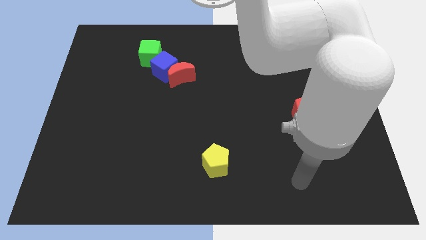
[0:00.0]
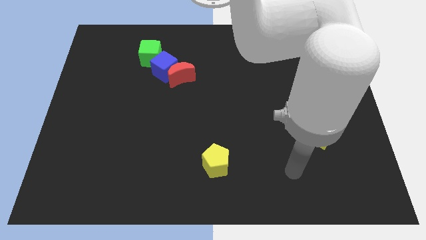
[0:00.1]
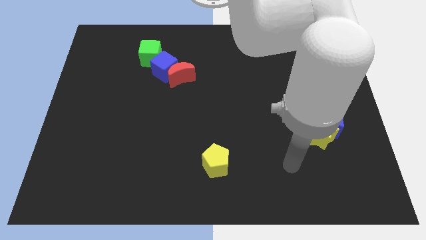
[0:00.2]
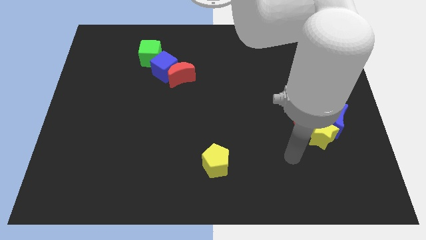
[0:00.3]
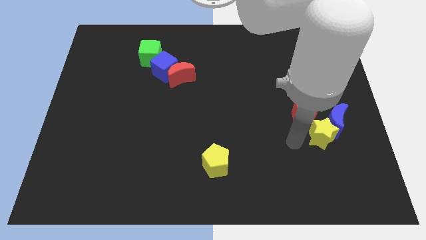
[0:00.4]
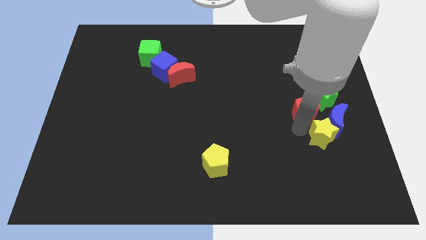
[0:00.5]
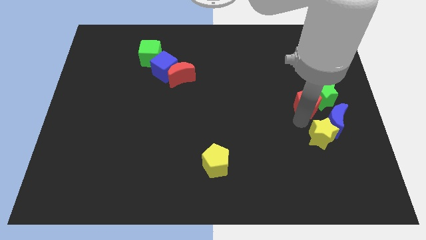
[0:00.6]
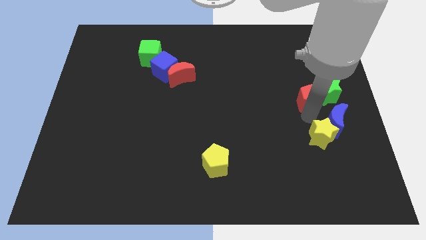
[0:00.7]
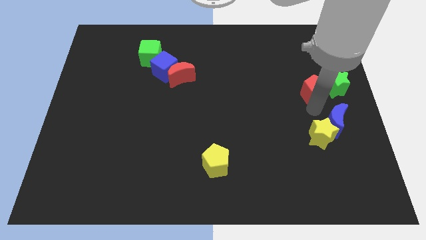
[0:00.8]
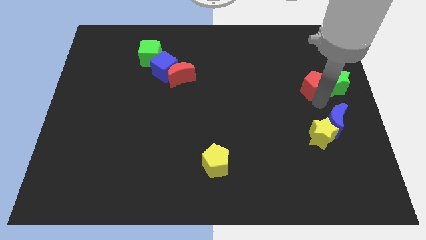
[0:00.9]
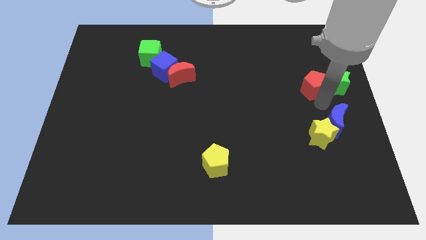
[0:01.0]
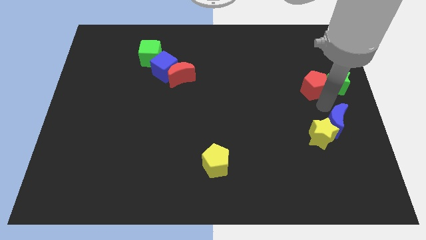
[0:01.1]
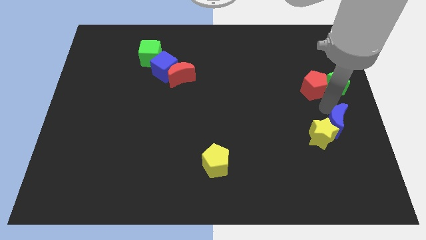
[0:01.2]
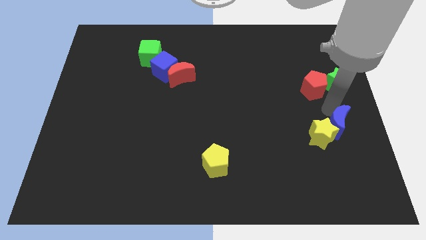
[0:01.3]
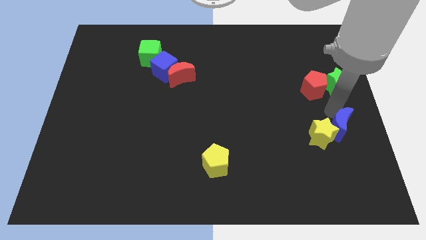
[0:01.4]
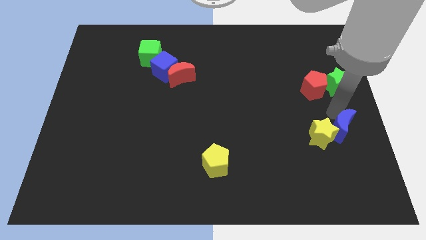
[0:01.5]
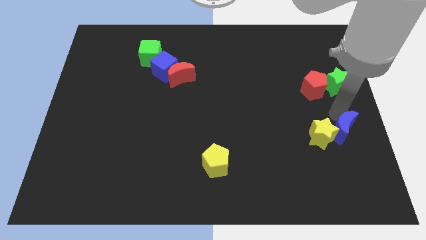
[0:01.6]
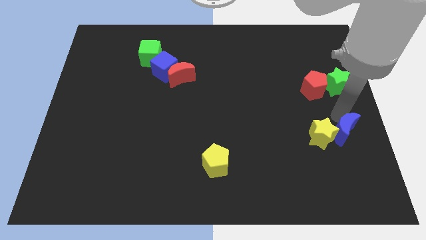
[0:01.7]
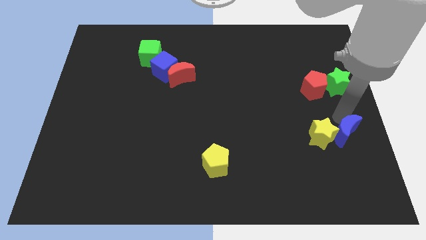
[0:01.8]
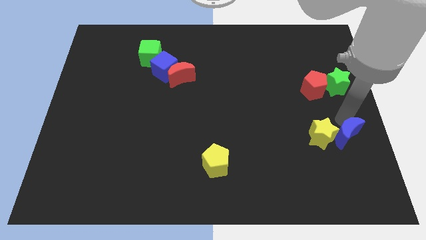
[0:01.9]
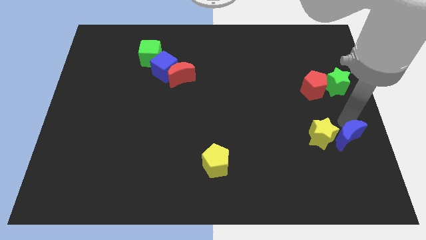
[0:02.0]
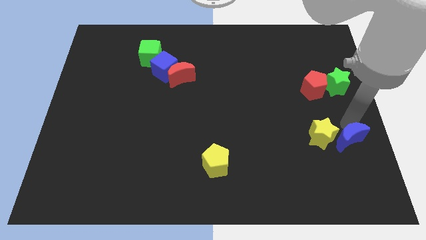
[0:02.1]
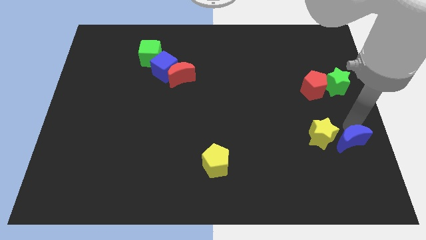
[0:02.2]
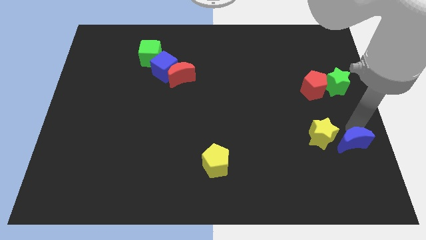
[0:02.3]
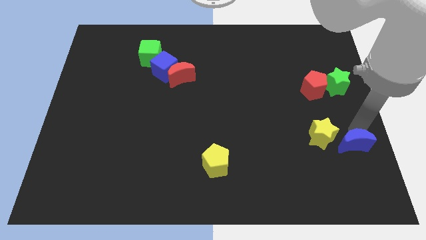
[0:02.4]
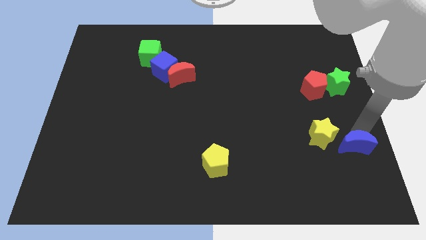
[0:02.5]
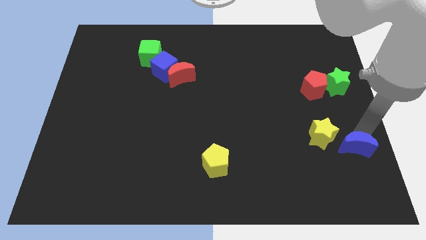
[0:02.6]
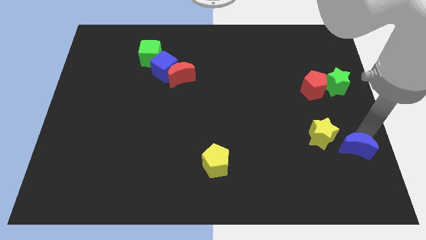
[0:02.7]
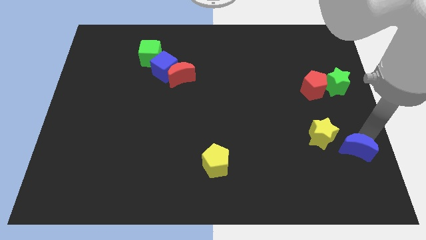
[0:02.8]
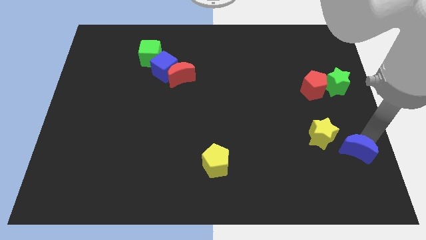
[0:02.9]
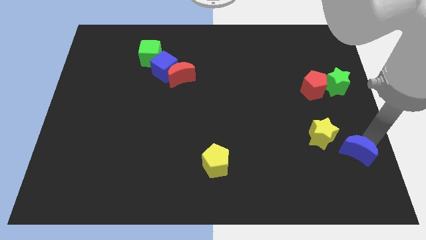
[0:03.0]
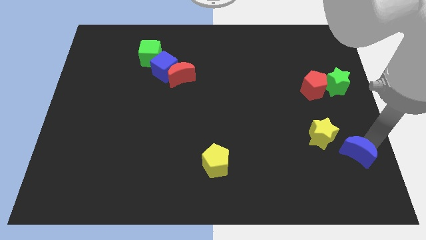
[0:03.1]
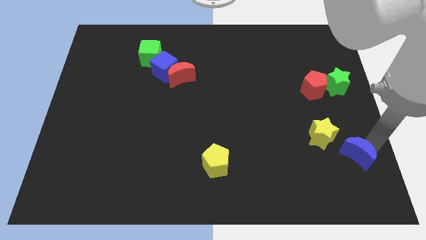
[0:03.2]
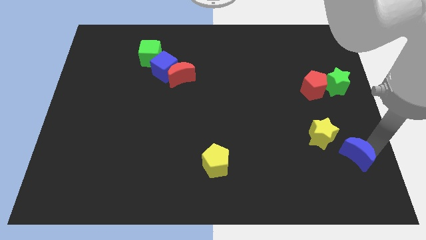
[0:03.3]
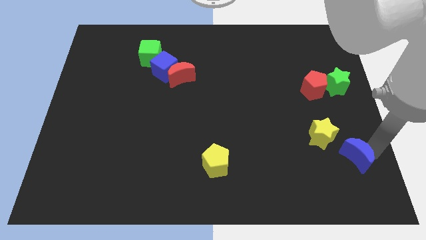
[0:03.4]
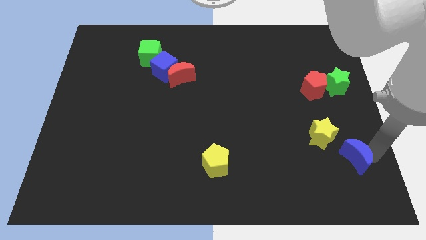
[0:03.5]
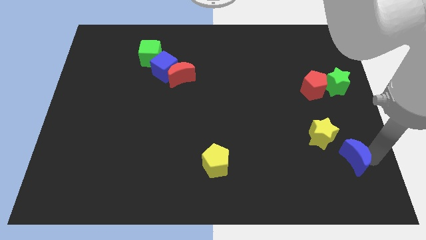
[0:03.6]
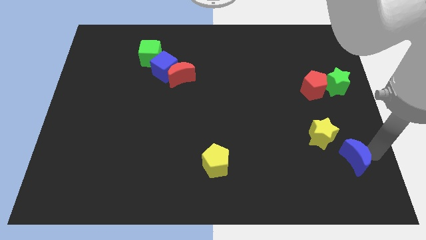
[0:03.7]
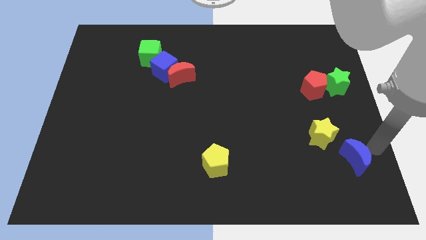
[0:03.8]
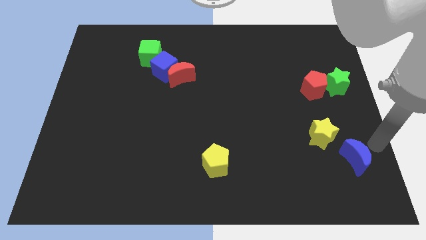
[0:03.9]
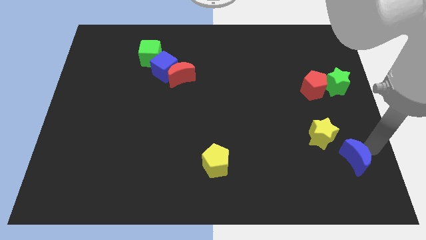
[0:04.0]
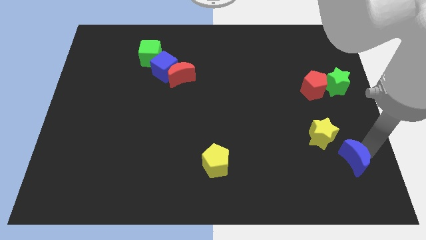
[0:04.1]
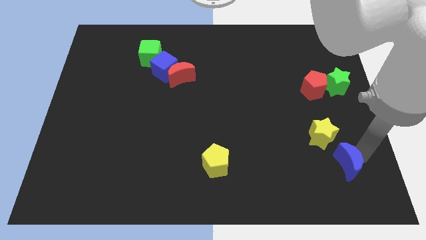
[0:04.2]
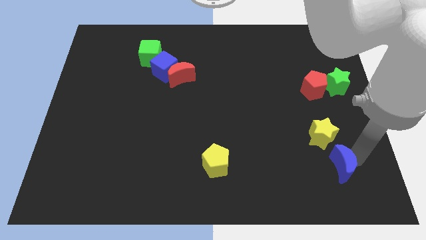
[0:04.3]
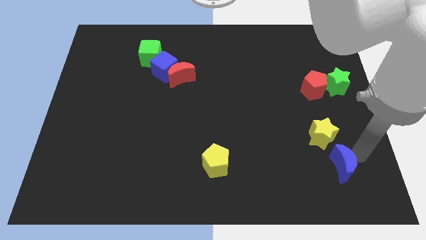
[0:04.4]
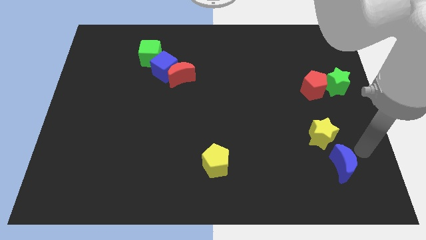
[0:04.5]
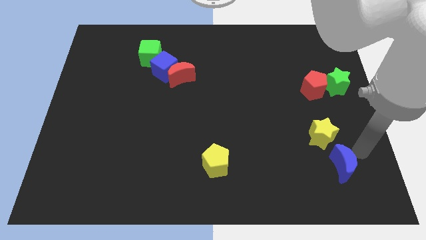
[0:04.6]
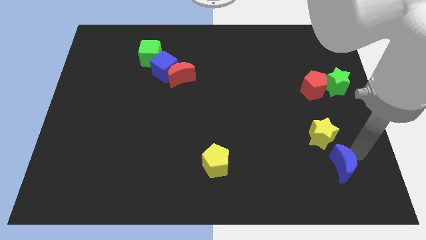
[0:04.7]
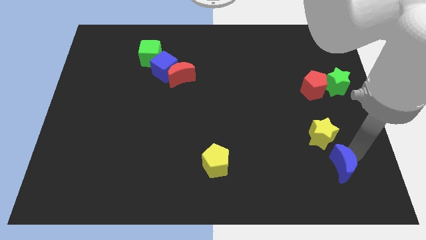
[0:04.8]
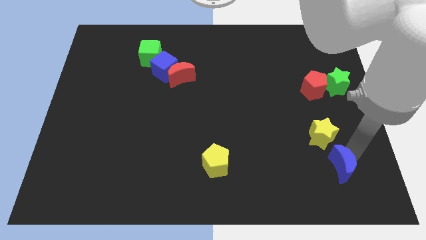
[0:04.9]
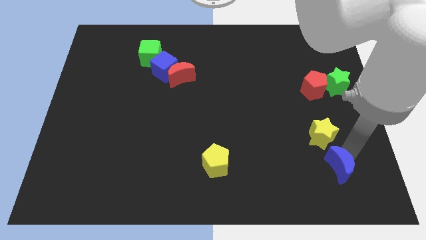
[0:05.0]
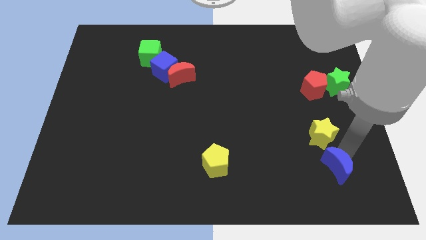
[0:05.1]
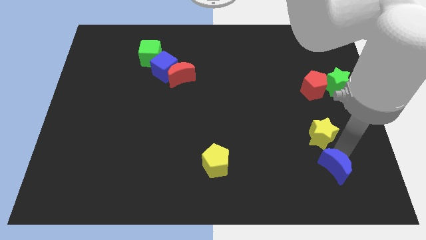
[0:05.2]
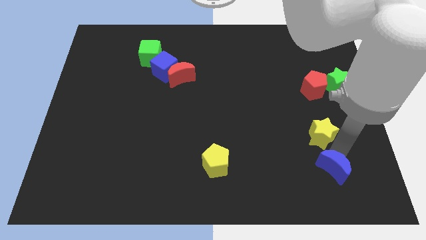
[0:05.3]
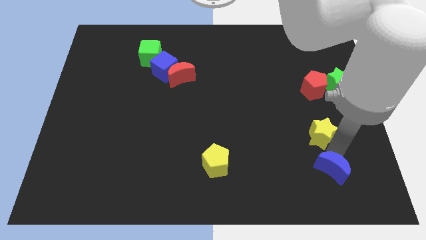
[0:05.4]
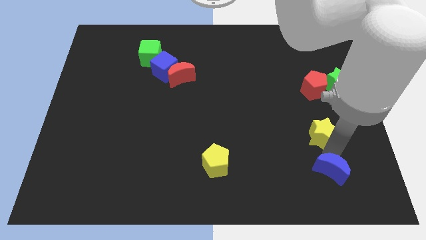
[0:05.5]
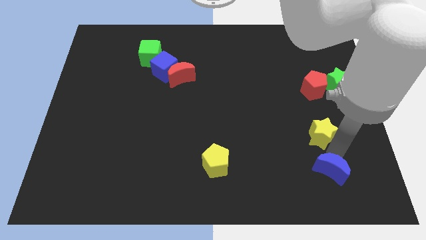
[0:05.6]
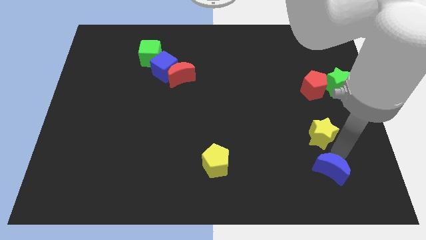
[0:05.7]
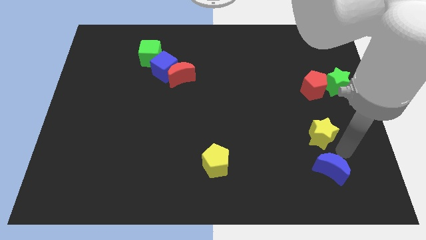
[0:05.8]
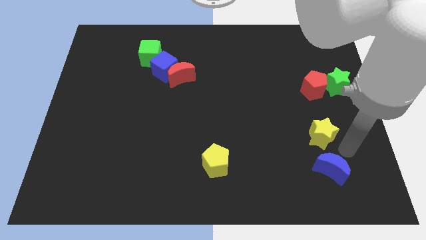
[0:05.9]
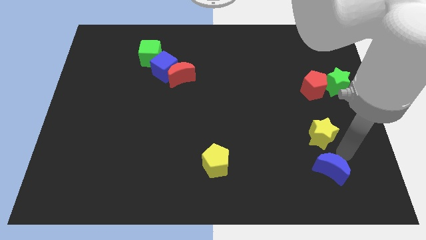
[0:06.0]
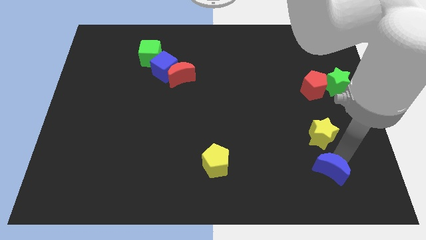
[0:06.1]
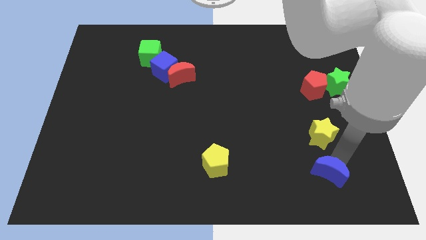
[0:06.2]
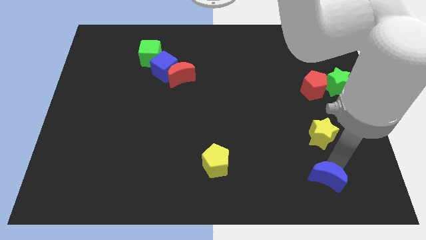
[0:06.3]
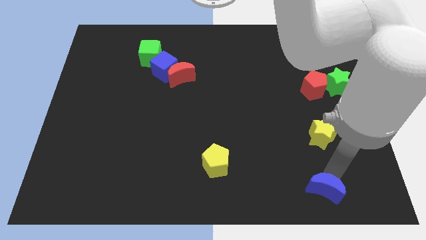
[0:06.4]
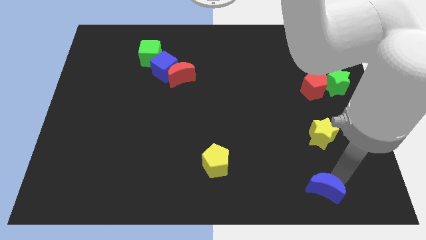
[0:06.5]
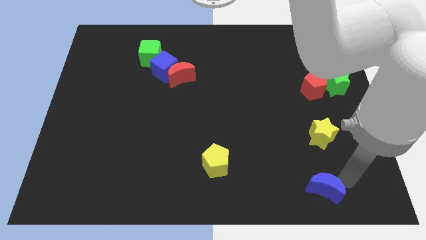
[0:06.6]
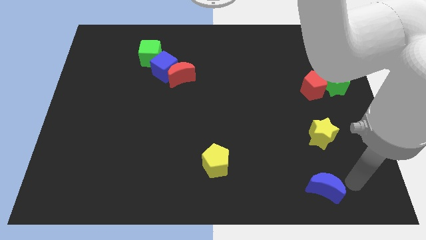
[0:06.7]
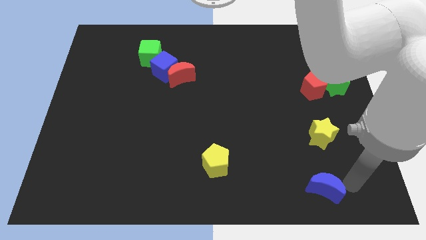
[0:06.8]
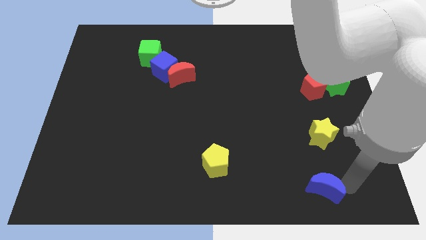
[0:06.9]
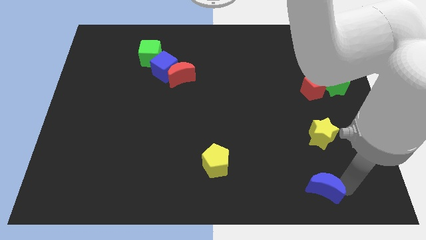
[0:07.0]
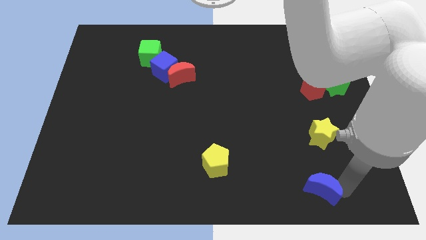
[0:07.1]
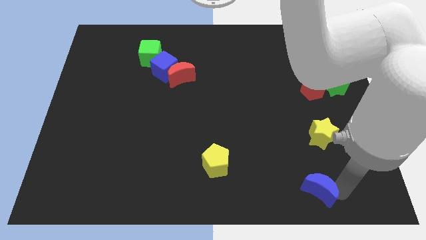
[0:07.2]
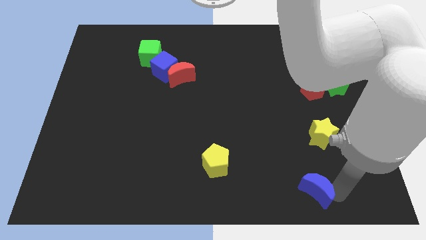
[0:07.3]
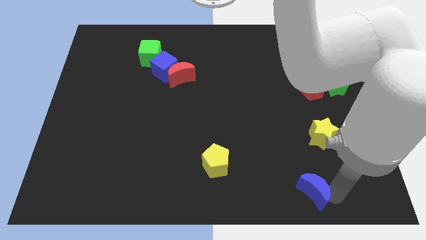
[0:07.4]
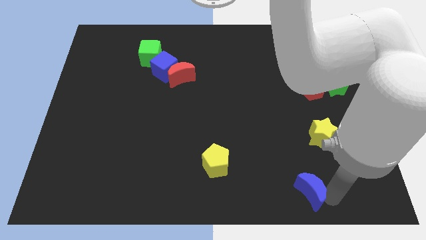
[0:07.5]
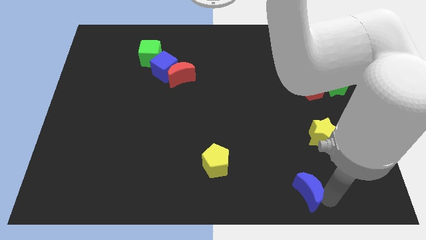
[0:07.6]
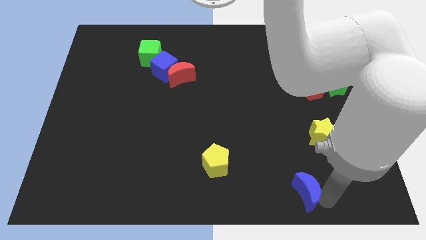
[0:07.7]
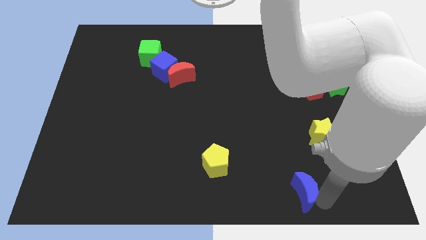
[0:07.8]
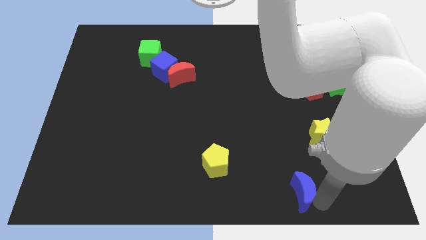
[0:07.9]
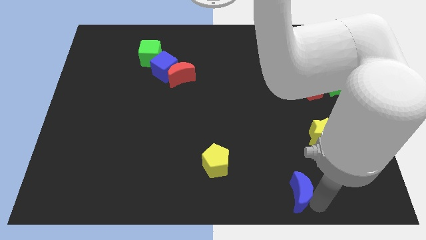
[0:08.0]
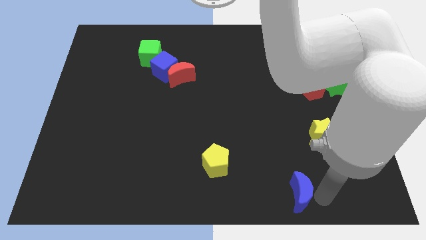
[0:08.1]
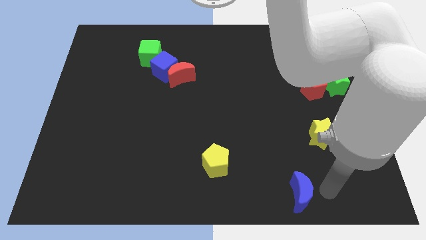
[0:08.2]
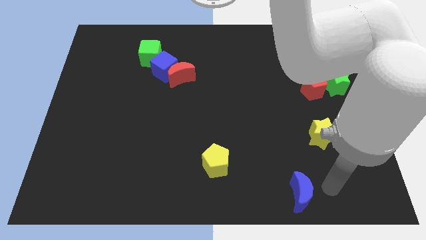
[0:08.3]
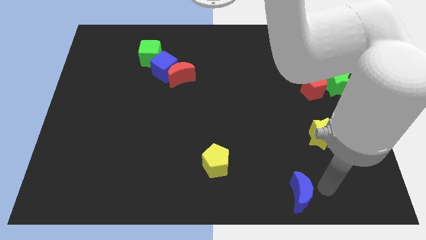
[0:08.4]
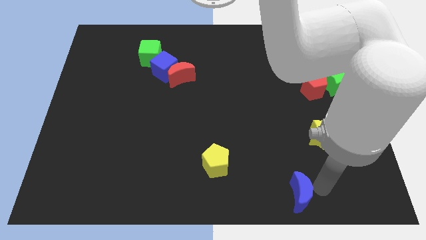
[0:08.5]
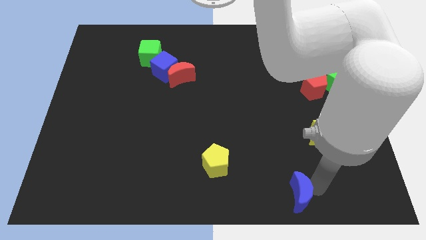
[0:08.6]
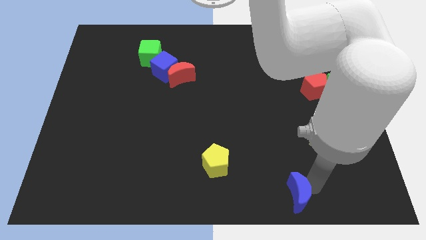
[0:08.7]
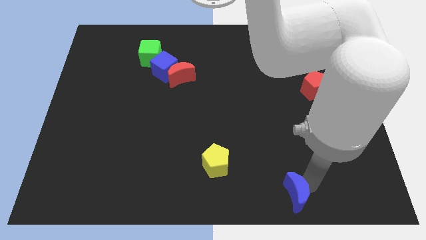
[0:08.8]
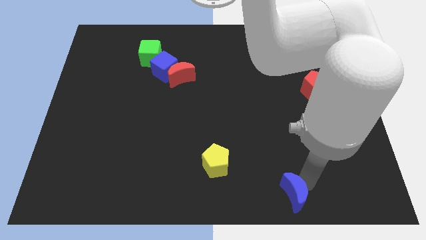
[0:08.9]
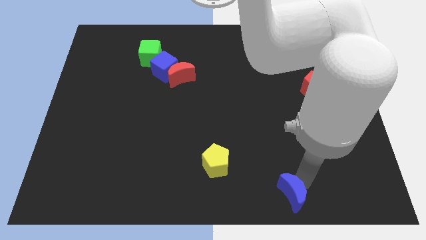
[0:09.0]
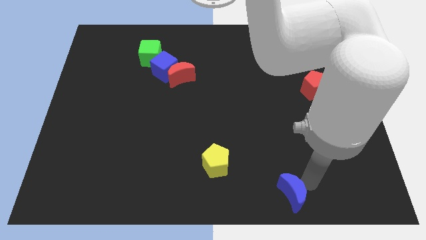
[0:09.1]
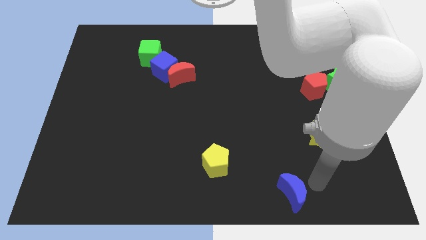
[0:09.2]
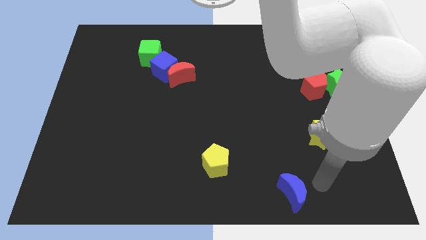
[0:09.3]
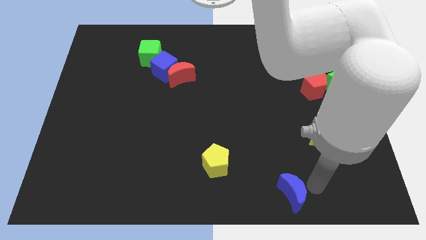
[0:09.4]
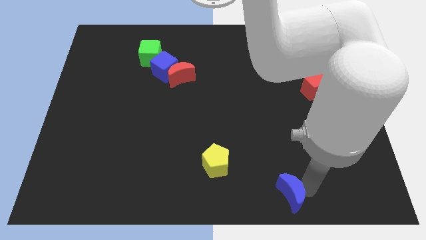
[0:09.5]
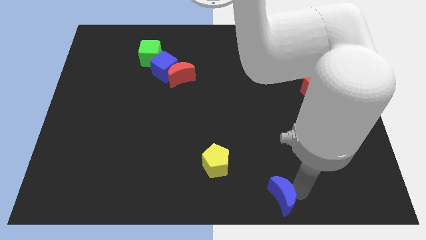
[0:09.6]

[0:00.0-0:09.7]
move the blue moon to the bottom
